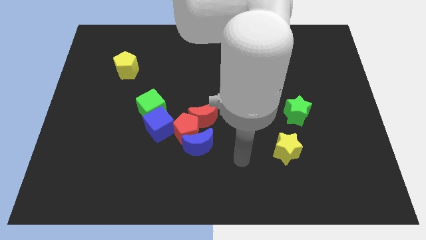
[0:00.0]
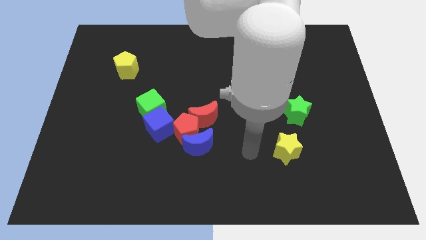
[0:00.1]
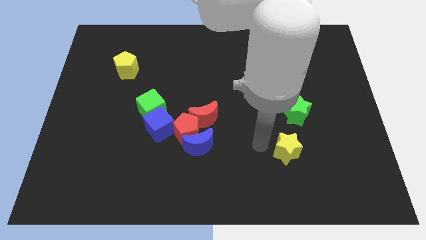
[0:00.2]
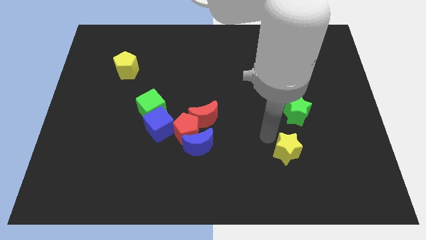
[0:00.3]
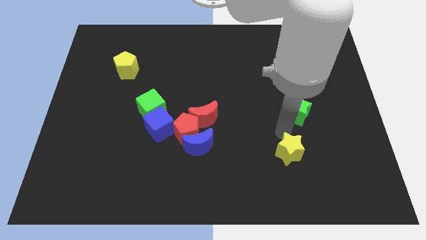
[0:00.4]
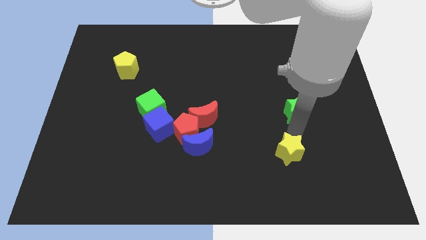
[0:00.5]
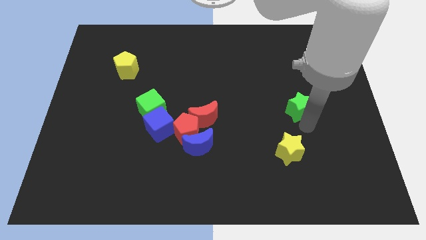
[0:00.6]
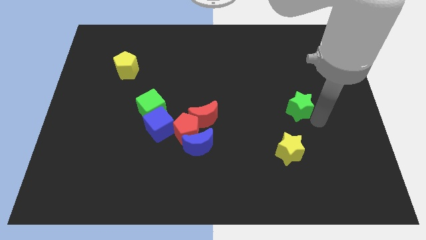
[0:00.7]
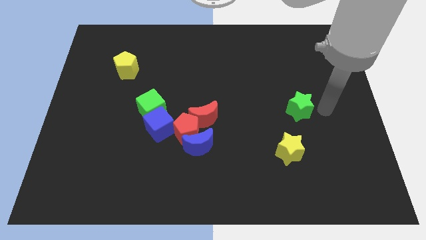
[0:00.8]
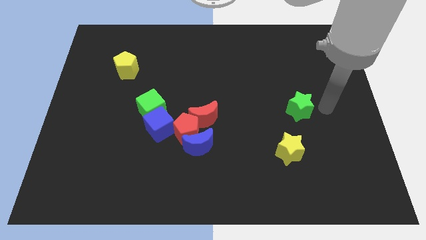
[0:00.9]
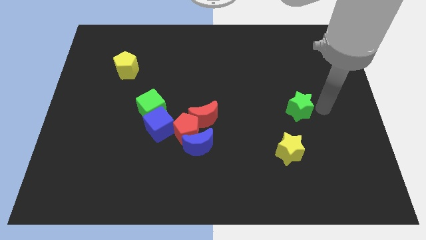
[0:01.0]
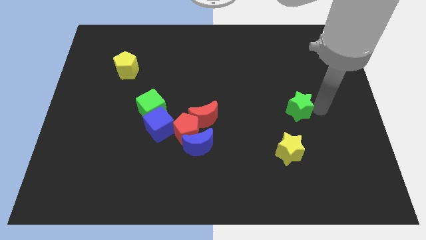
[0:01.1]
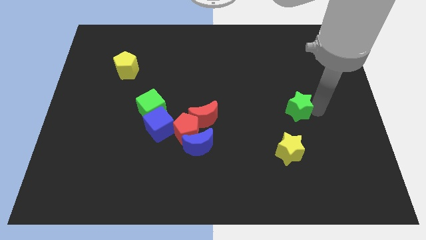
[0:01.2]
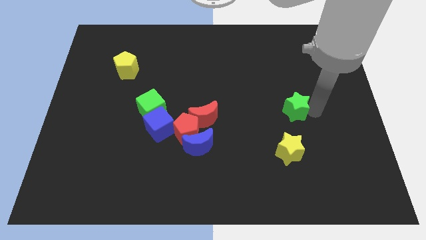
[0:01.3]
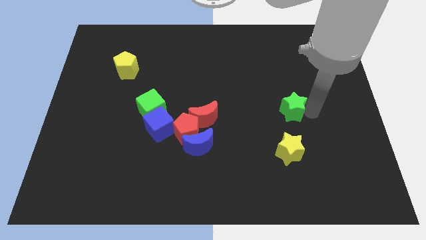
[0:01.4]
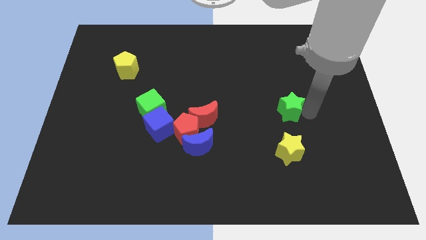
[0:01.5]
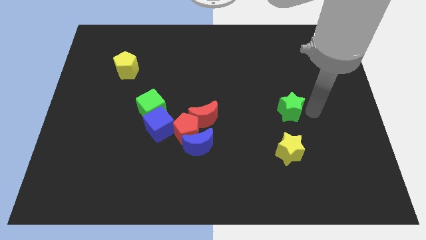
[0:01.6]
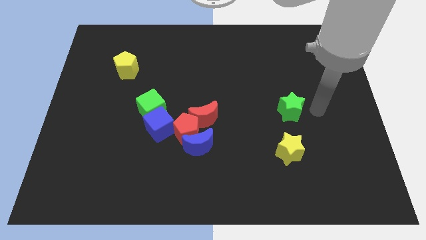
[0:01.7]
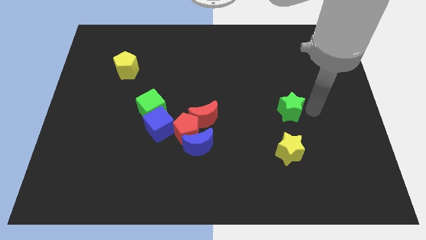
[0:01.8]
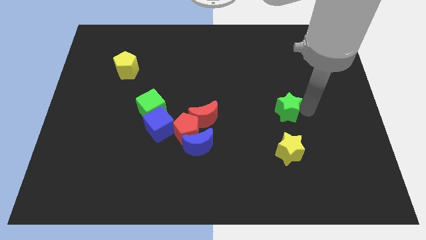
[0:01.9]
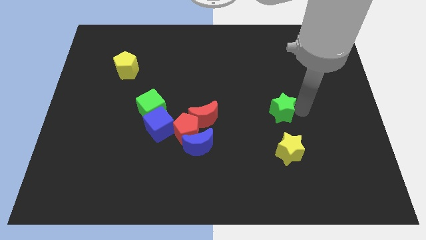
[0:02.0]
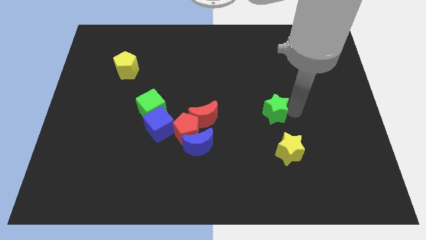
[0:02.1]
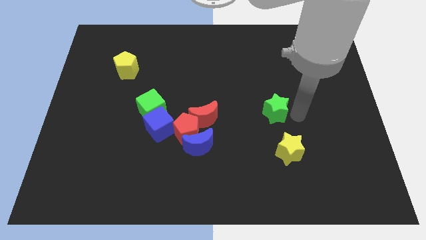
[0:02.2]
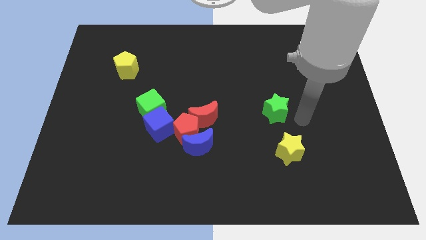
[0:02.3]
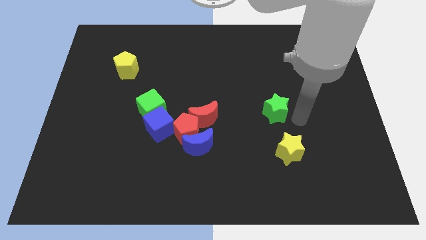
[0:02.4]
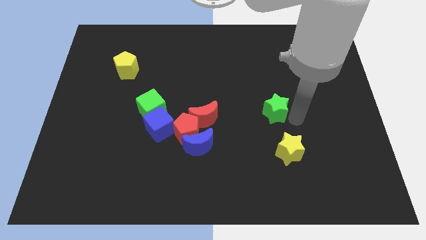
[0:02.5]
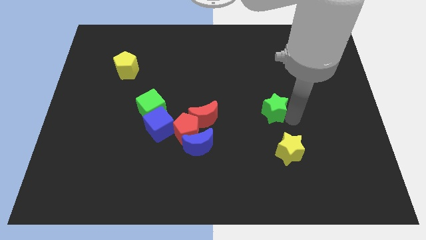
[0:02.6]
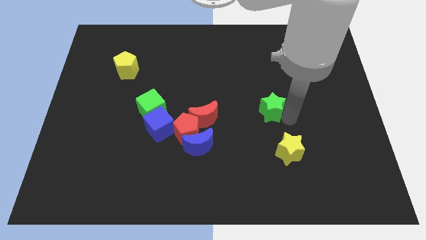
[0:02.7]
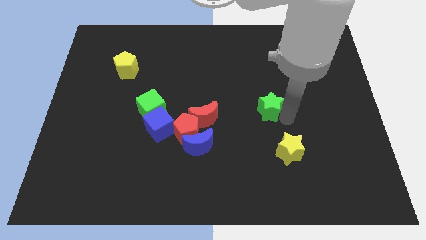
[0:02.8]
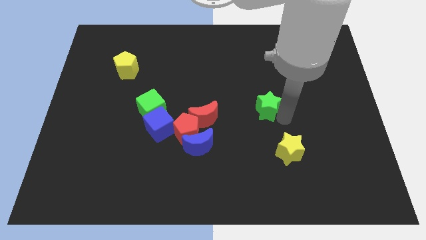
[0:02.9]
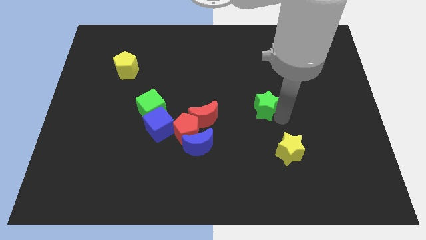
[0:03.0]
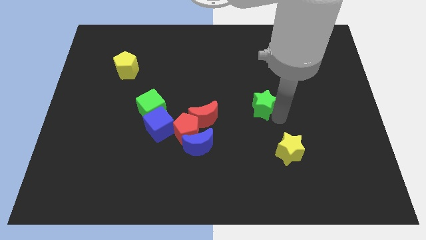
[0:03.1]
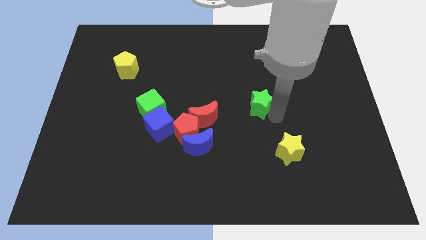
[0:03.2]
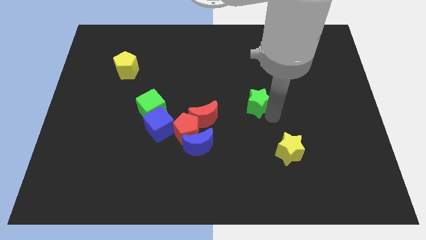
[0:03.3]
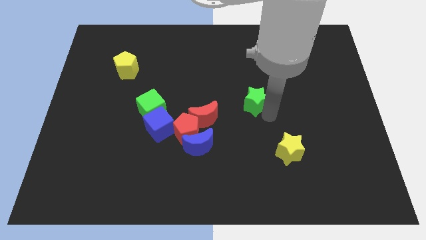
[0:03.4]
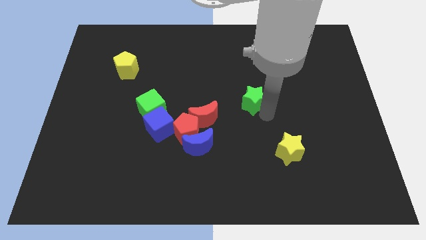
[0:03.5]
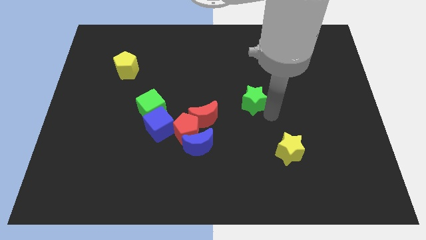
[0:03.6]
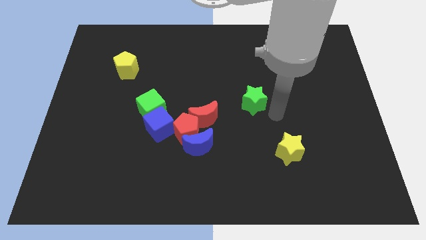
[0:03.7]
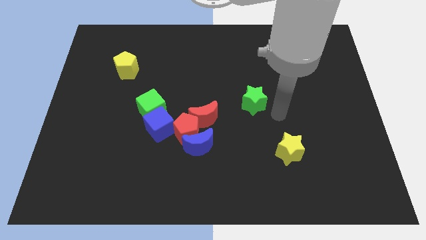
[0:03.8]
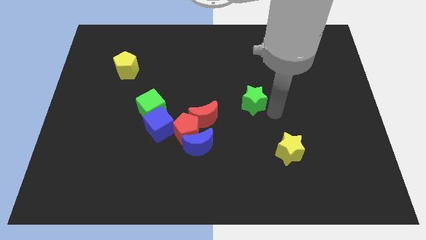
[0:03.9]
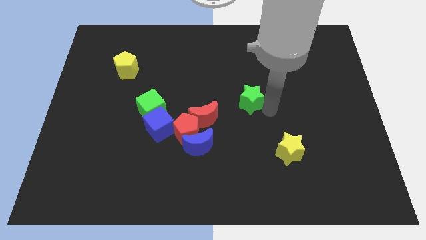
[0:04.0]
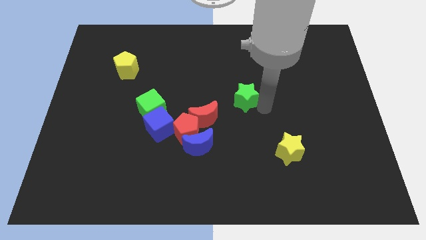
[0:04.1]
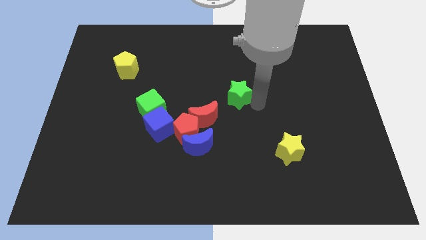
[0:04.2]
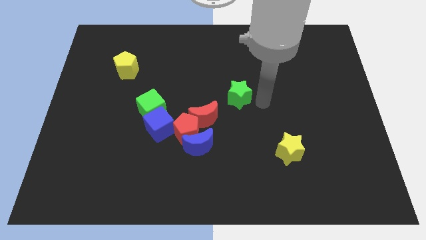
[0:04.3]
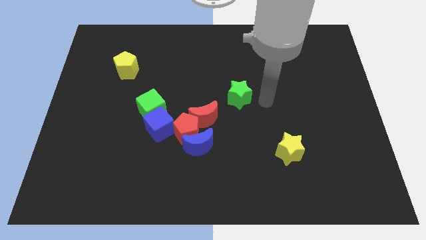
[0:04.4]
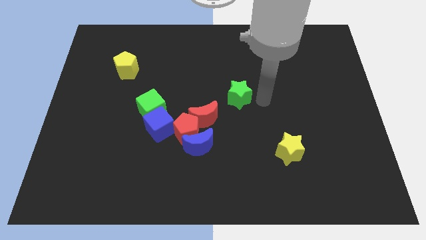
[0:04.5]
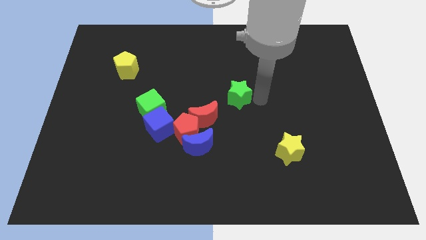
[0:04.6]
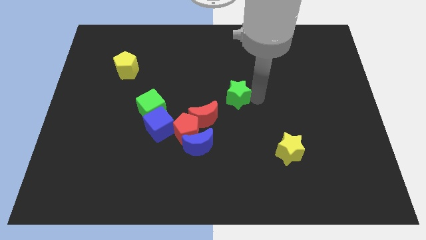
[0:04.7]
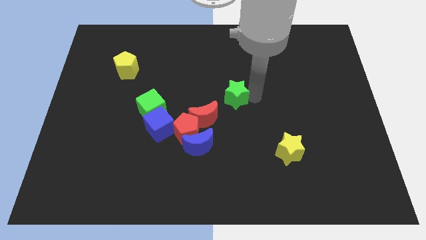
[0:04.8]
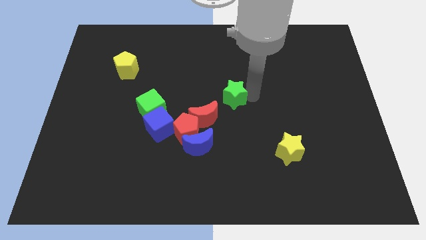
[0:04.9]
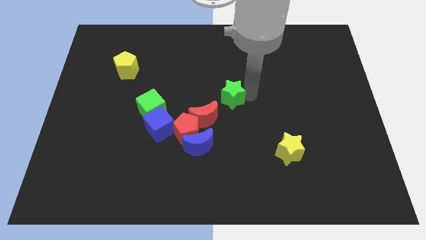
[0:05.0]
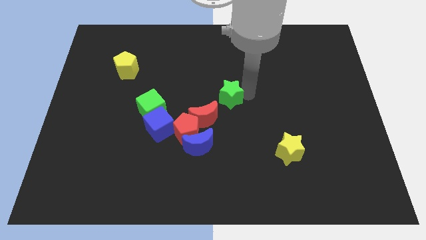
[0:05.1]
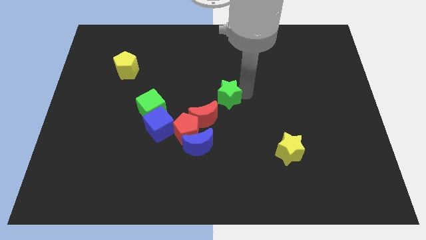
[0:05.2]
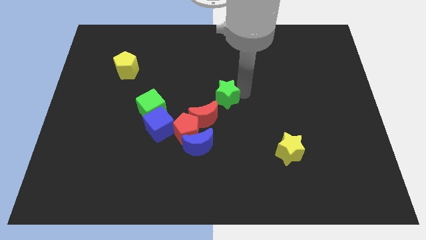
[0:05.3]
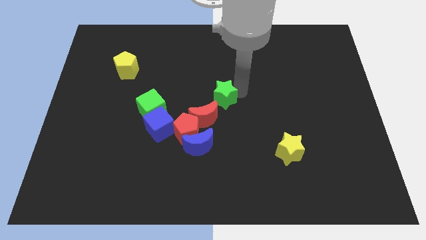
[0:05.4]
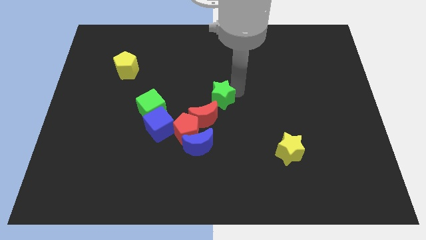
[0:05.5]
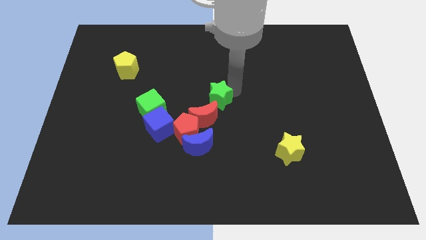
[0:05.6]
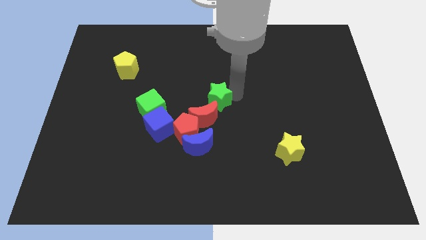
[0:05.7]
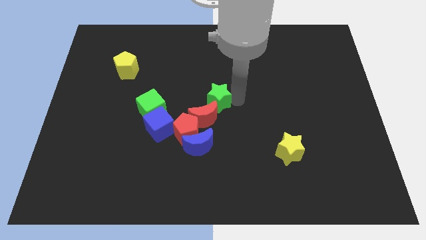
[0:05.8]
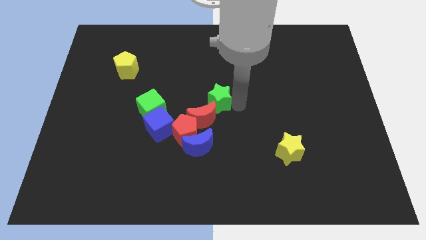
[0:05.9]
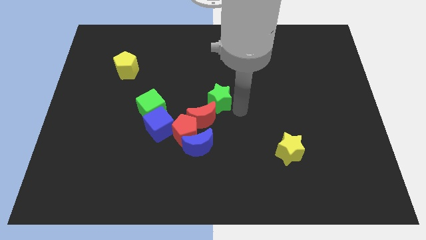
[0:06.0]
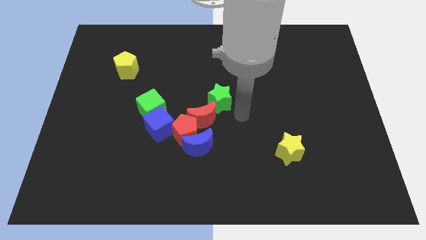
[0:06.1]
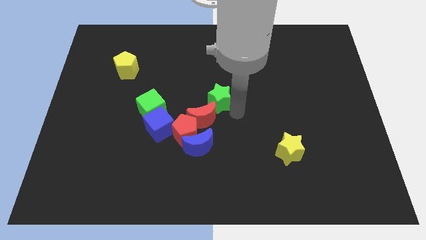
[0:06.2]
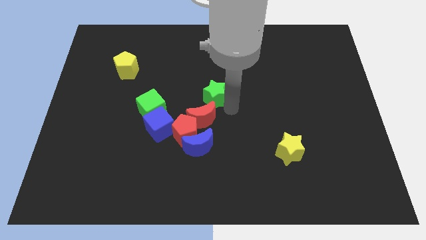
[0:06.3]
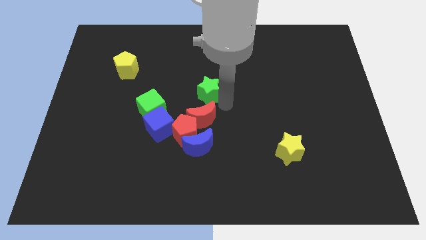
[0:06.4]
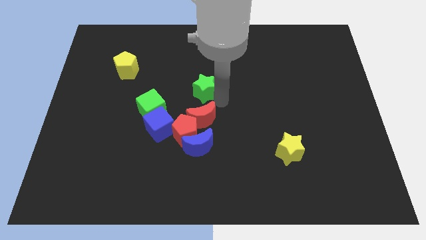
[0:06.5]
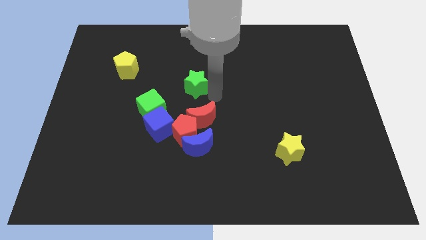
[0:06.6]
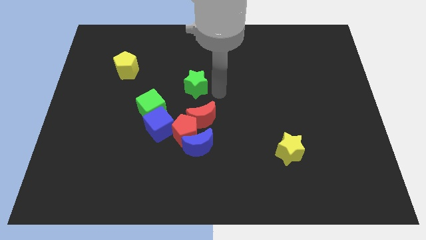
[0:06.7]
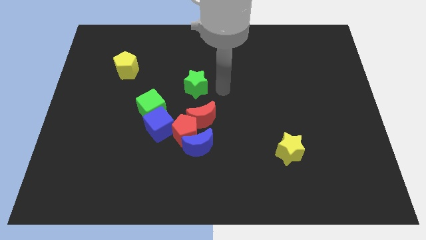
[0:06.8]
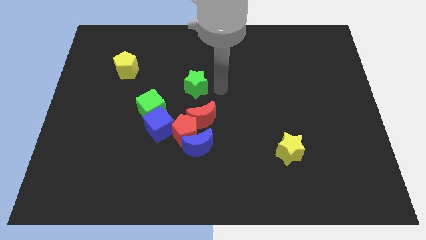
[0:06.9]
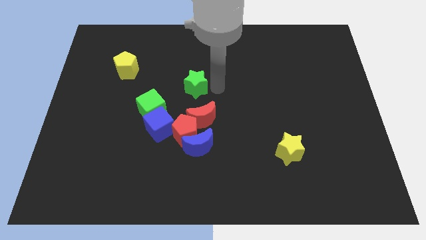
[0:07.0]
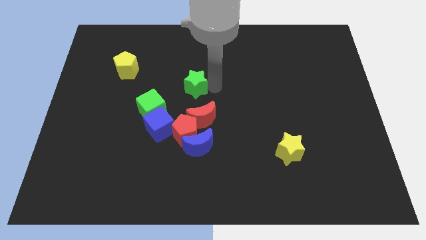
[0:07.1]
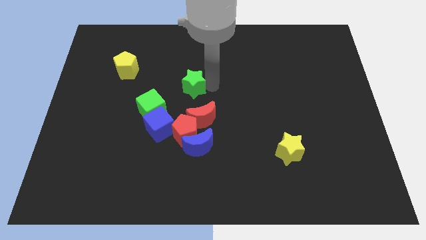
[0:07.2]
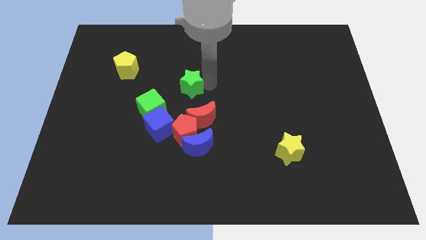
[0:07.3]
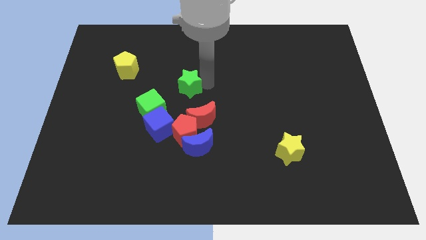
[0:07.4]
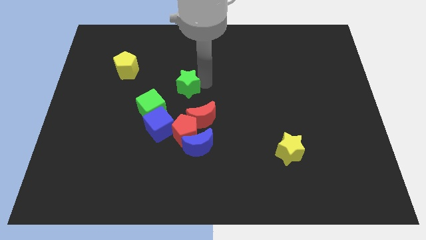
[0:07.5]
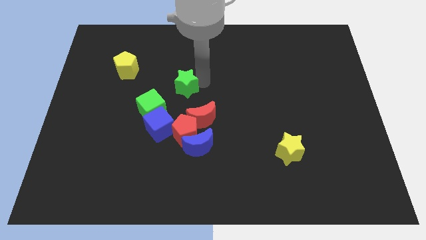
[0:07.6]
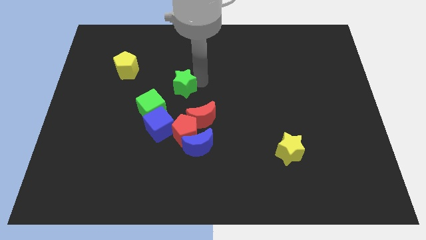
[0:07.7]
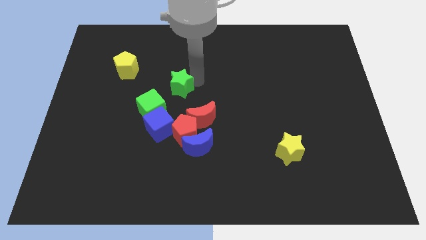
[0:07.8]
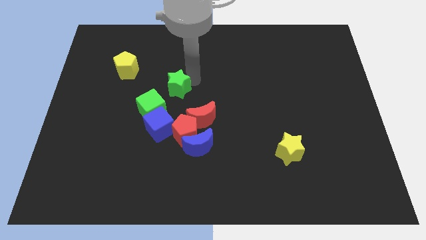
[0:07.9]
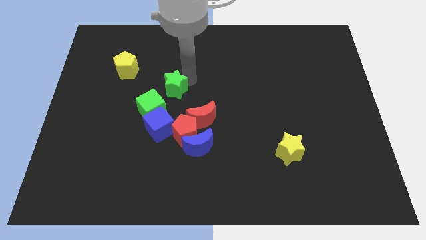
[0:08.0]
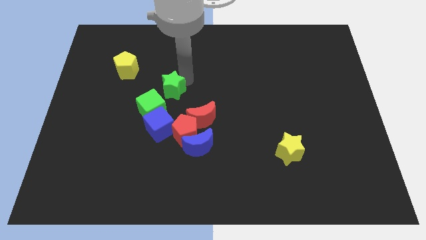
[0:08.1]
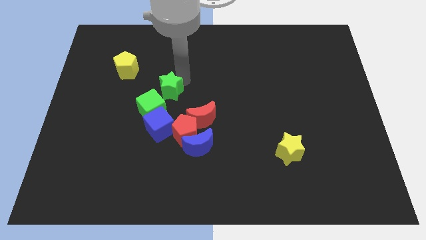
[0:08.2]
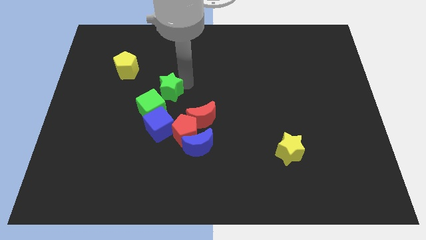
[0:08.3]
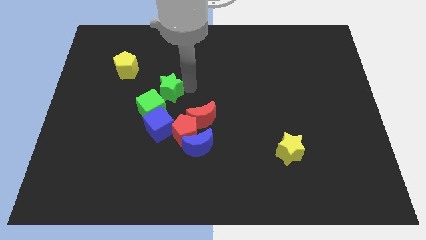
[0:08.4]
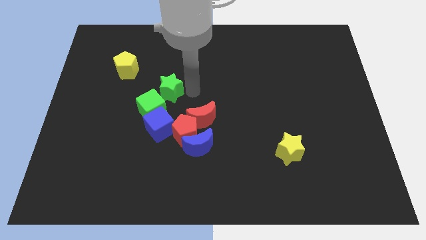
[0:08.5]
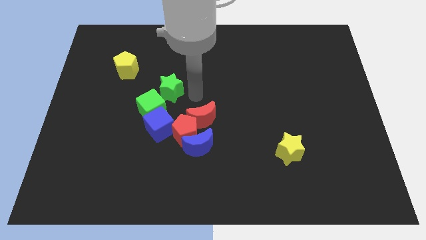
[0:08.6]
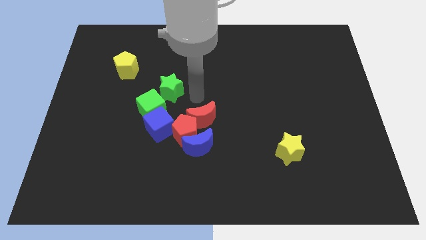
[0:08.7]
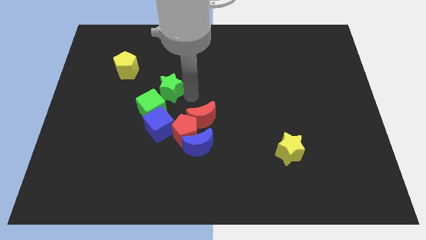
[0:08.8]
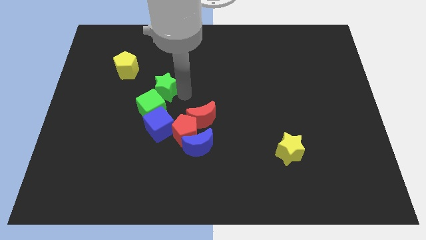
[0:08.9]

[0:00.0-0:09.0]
slide the green star to the bottom right of the yellow pentagon
